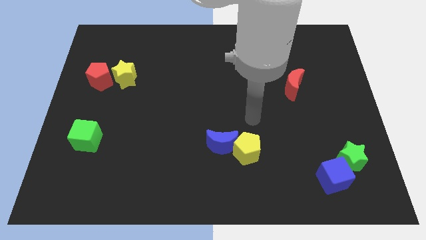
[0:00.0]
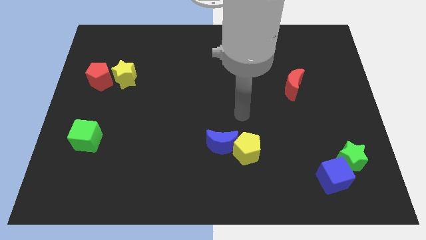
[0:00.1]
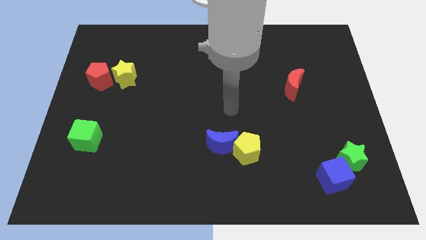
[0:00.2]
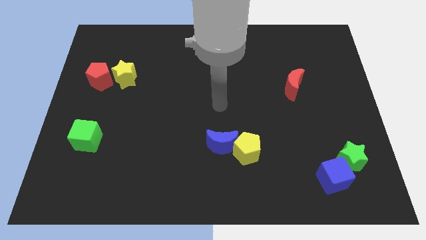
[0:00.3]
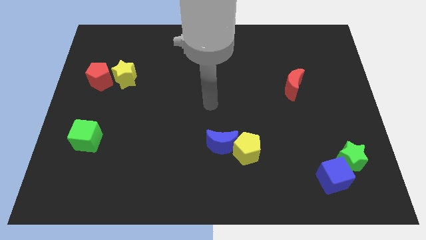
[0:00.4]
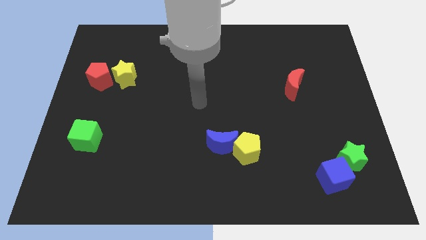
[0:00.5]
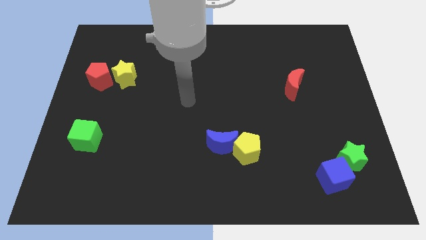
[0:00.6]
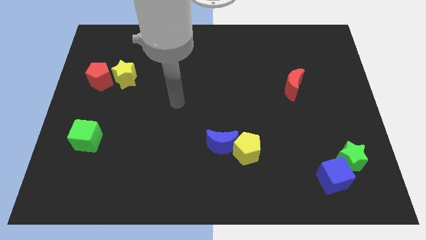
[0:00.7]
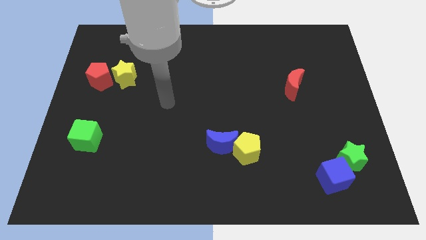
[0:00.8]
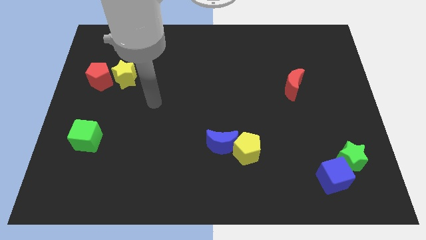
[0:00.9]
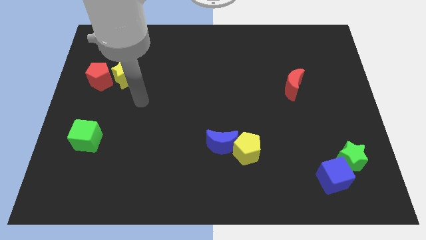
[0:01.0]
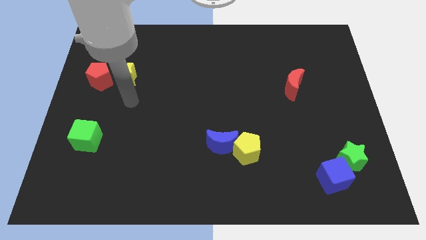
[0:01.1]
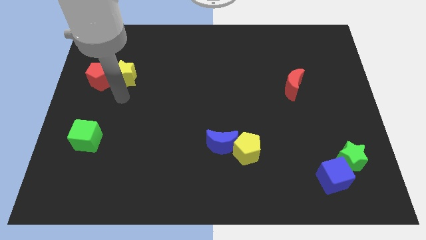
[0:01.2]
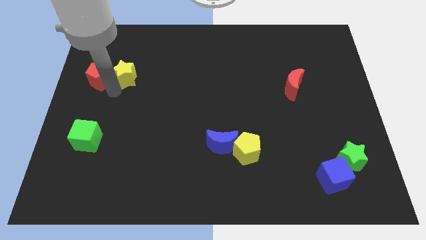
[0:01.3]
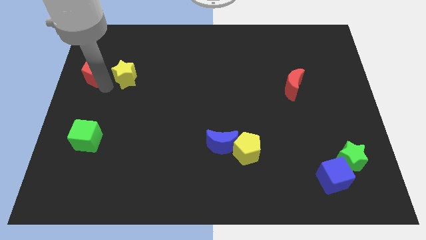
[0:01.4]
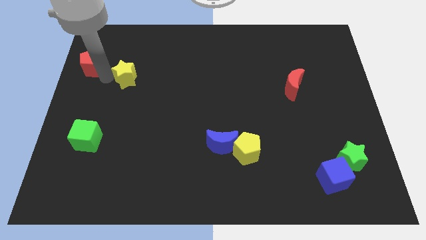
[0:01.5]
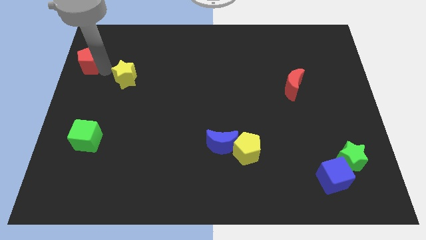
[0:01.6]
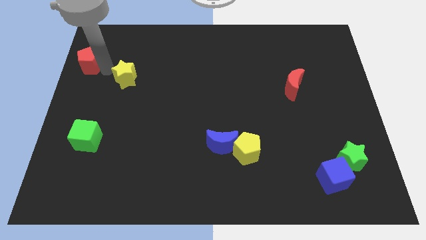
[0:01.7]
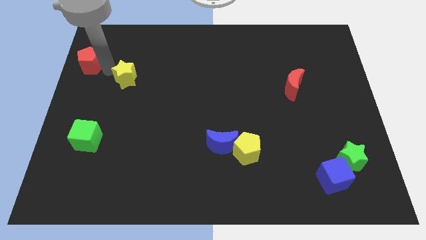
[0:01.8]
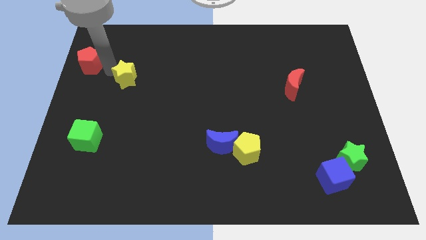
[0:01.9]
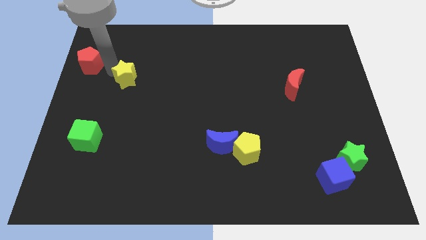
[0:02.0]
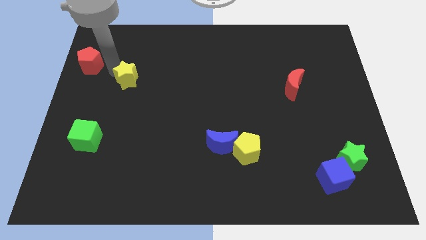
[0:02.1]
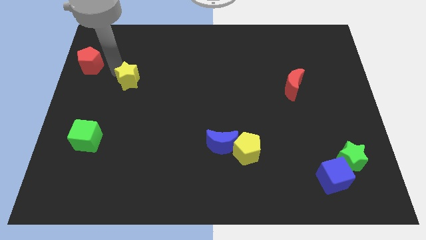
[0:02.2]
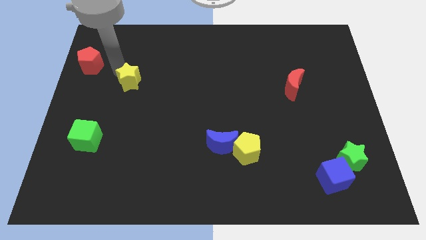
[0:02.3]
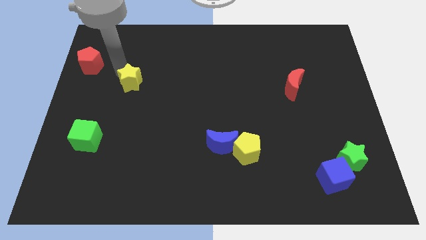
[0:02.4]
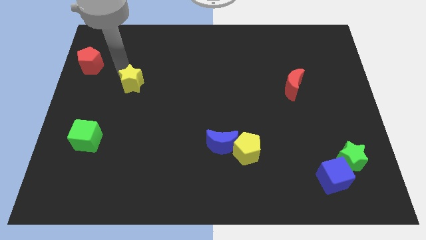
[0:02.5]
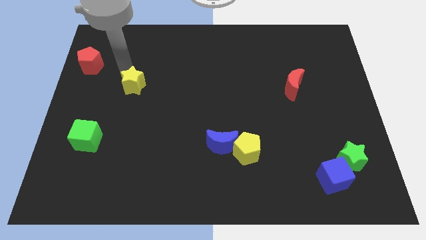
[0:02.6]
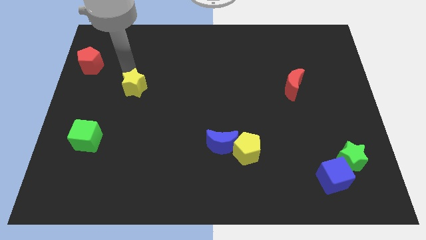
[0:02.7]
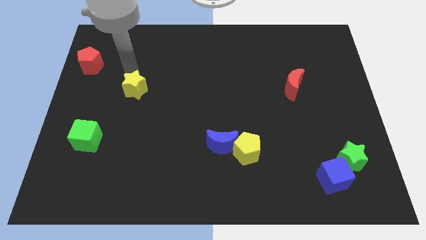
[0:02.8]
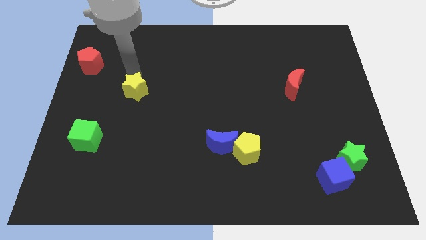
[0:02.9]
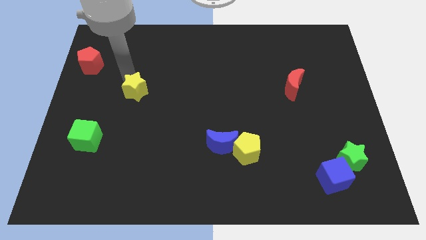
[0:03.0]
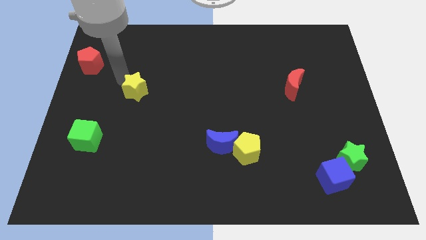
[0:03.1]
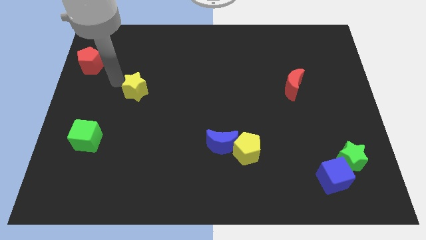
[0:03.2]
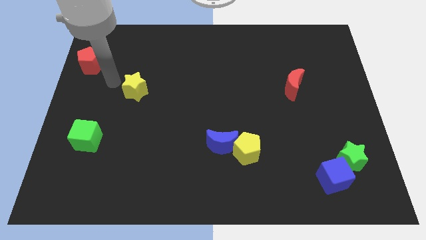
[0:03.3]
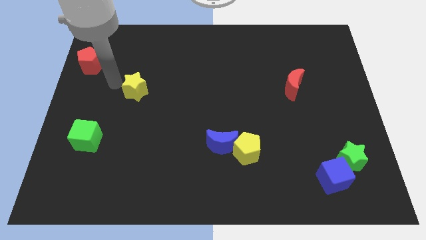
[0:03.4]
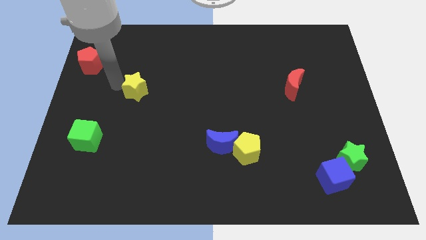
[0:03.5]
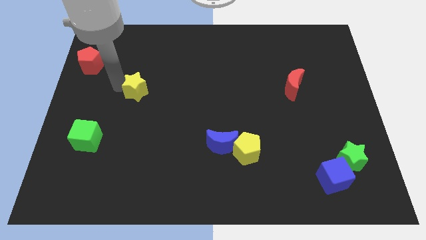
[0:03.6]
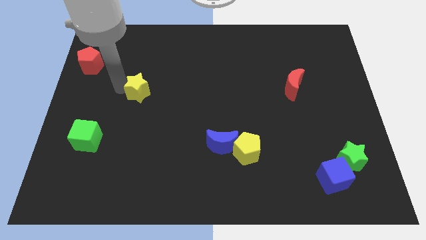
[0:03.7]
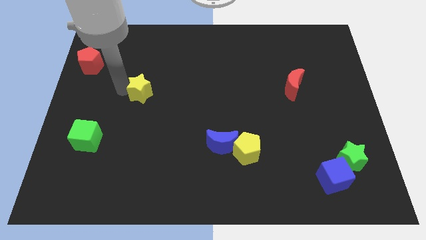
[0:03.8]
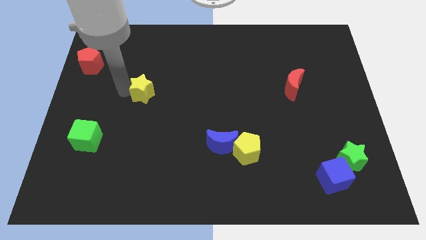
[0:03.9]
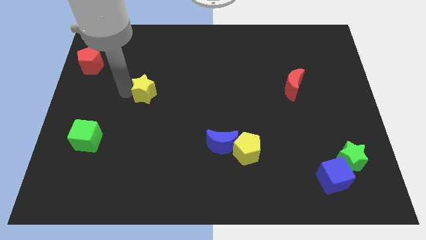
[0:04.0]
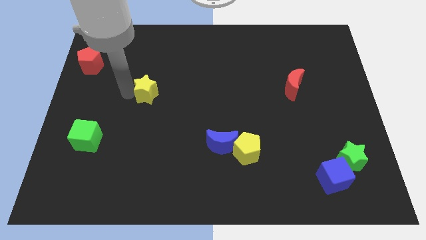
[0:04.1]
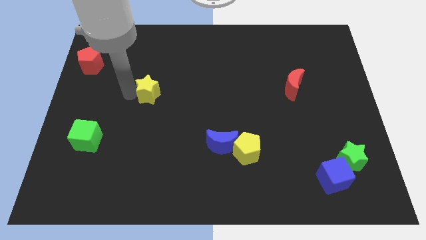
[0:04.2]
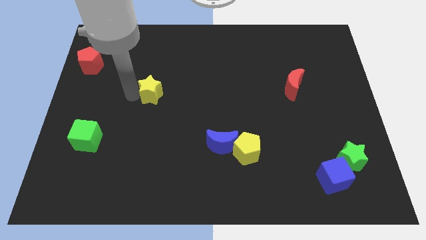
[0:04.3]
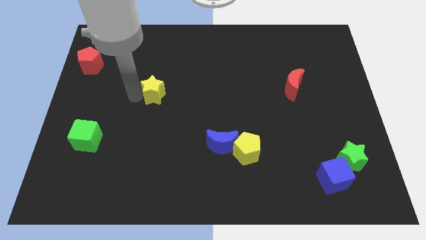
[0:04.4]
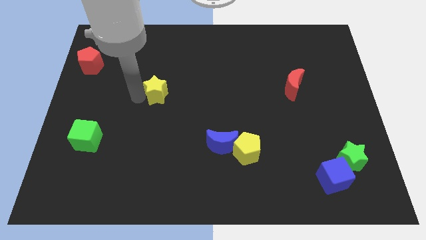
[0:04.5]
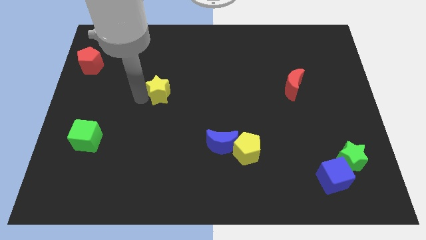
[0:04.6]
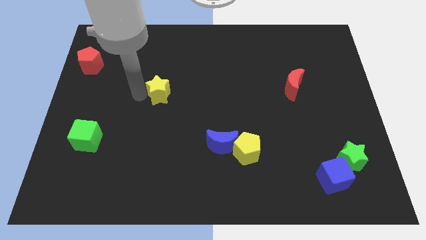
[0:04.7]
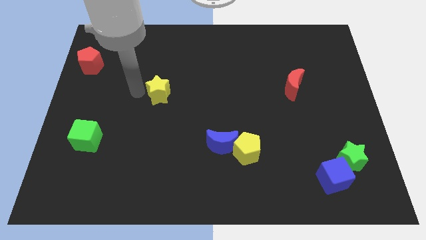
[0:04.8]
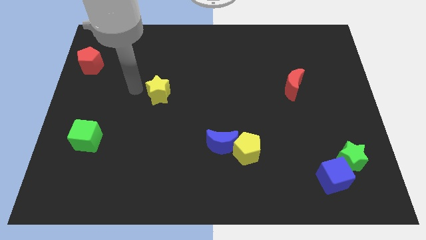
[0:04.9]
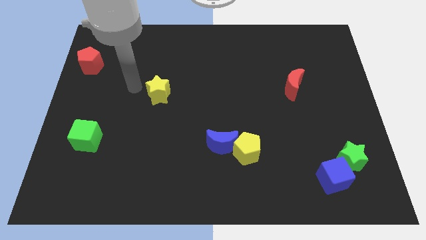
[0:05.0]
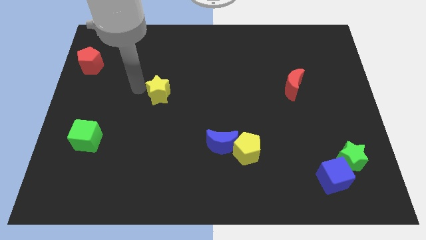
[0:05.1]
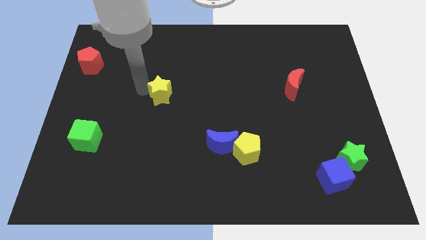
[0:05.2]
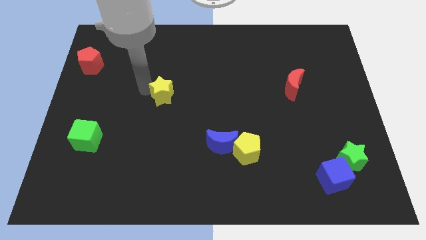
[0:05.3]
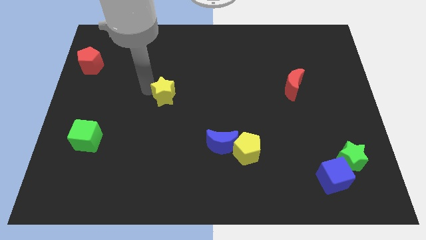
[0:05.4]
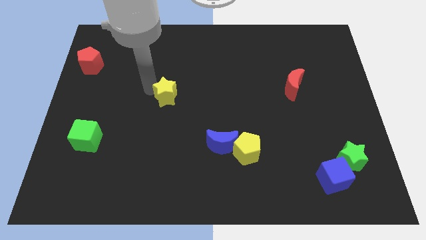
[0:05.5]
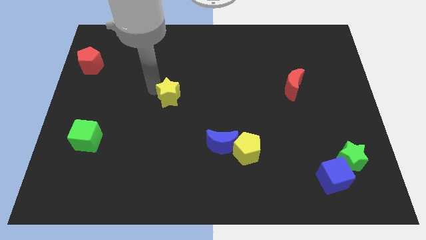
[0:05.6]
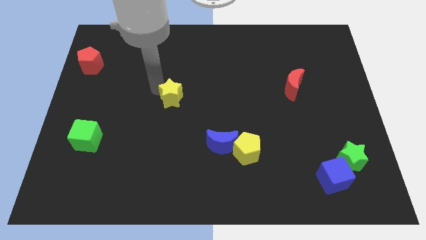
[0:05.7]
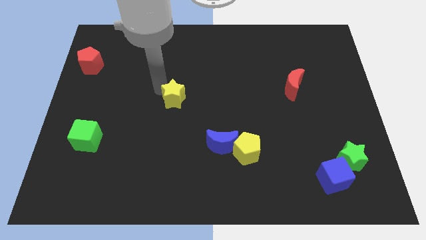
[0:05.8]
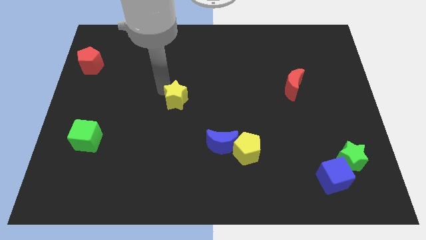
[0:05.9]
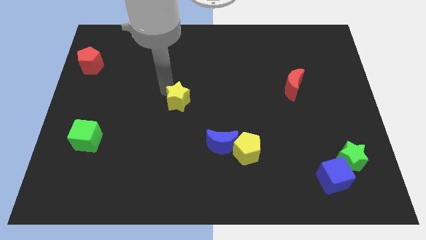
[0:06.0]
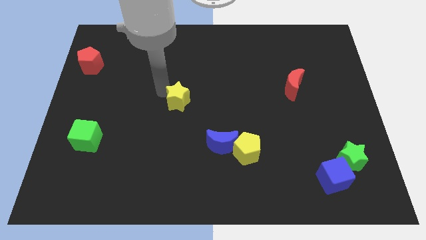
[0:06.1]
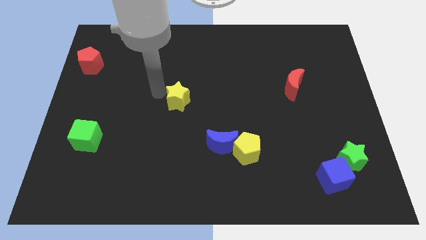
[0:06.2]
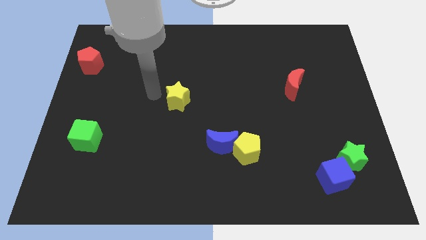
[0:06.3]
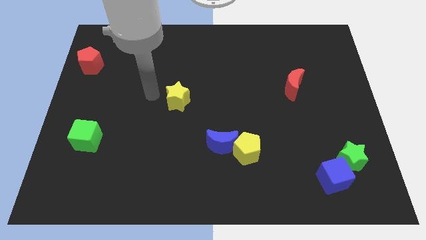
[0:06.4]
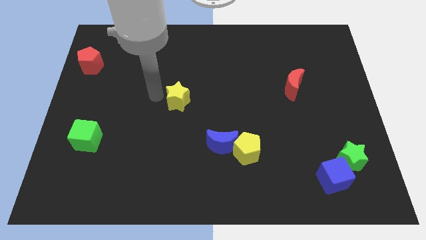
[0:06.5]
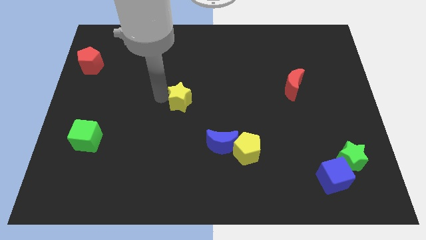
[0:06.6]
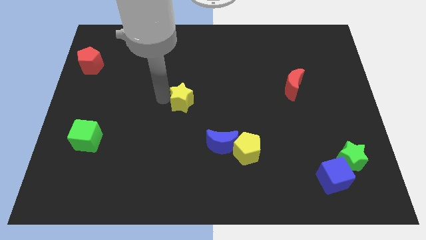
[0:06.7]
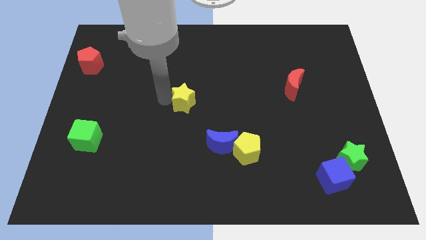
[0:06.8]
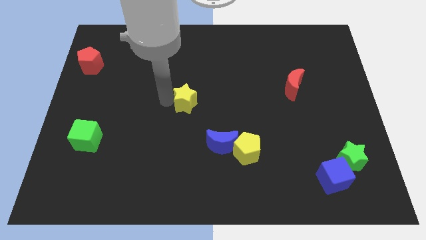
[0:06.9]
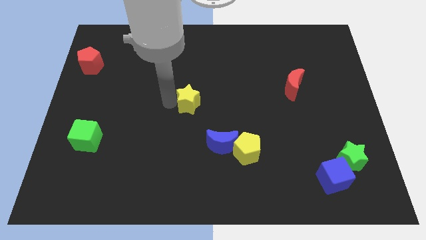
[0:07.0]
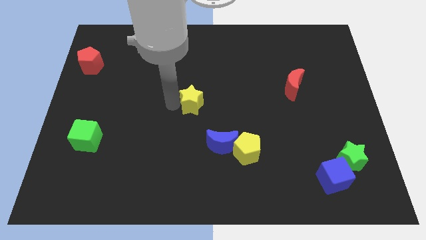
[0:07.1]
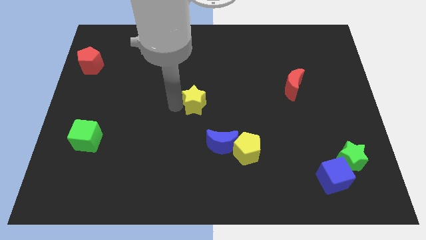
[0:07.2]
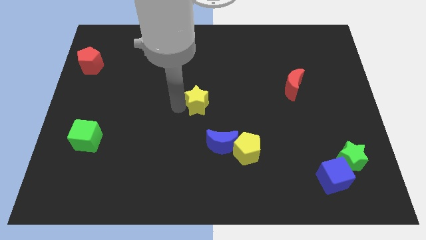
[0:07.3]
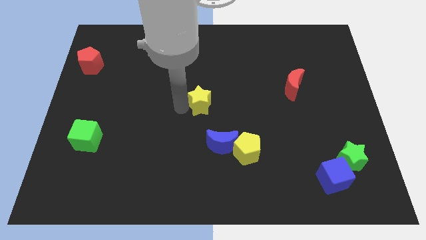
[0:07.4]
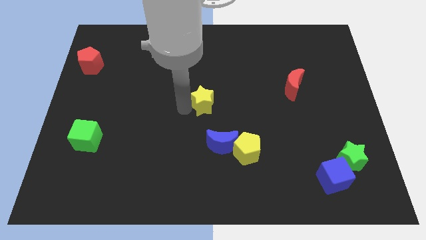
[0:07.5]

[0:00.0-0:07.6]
slide the yellow star to the top side of the blue moon
